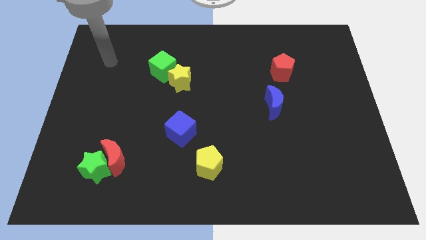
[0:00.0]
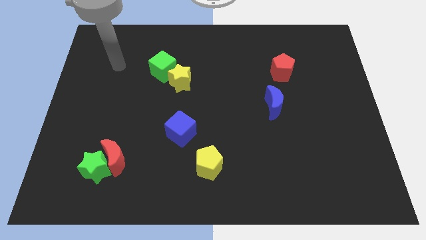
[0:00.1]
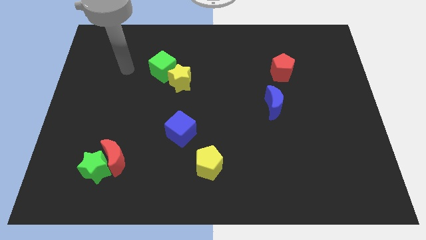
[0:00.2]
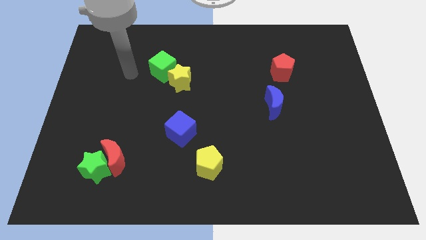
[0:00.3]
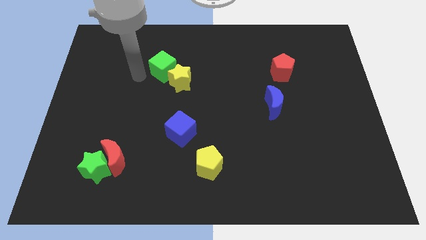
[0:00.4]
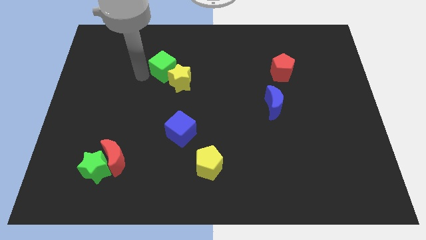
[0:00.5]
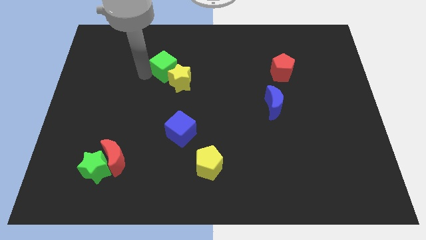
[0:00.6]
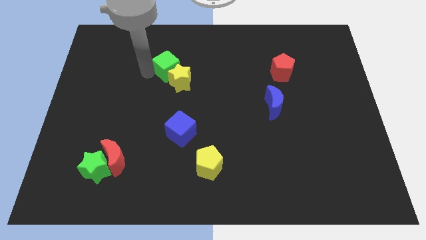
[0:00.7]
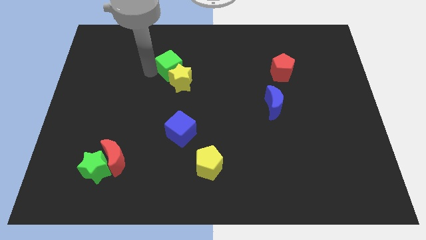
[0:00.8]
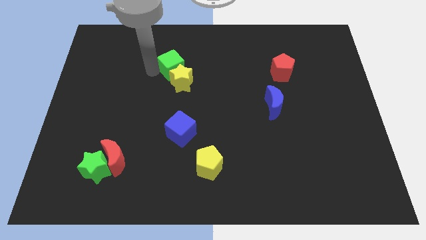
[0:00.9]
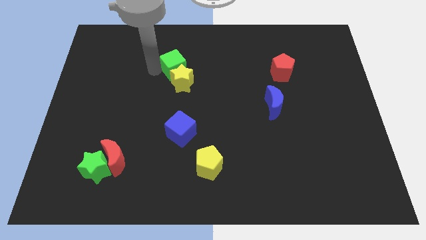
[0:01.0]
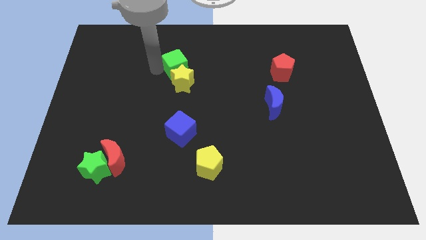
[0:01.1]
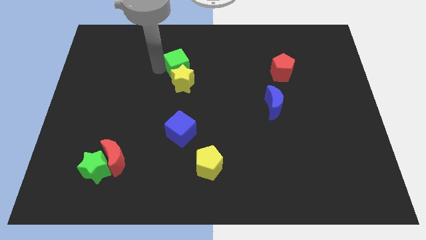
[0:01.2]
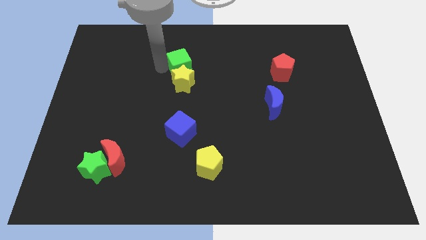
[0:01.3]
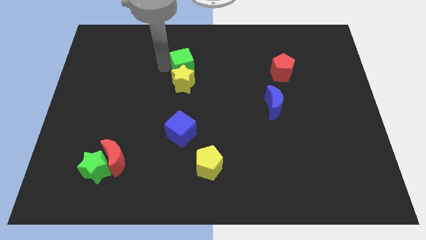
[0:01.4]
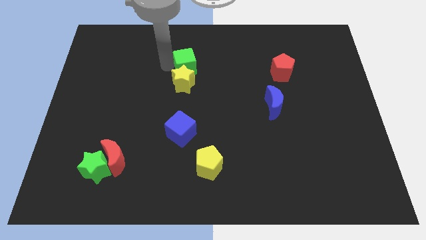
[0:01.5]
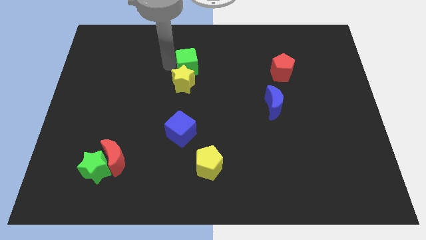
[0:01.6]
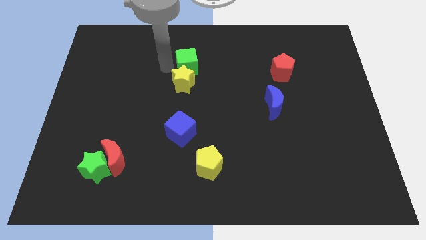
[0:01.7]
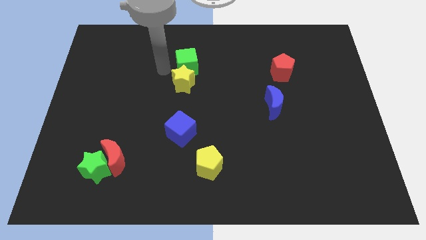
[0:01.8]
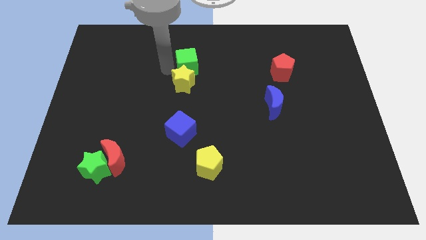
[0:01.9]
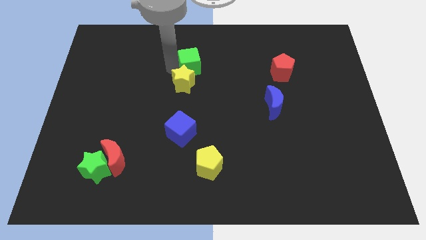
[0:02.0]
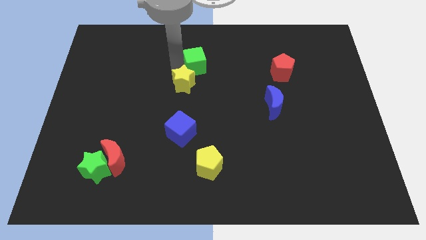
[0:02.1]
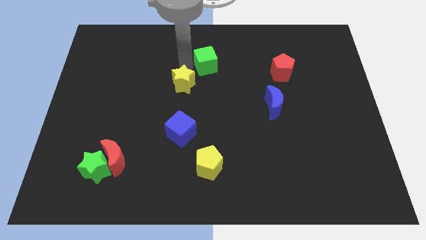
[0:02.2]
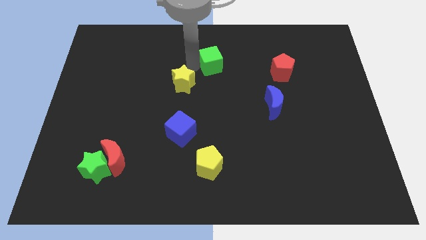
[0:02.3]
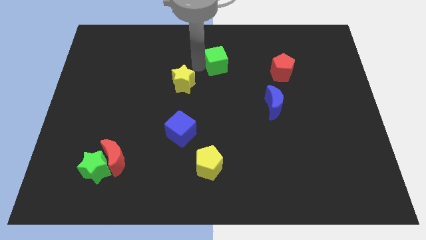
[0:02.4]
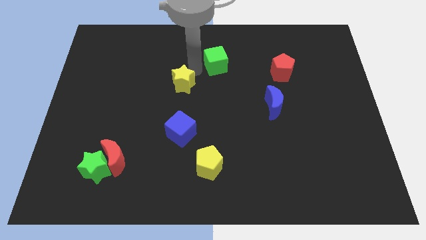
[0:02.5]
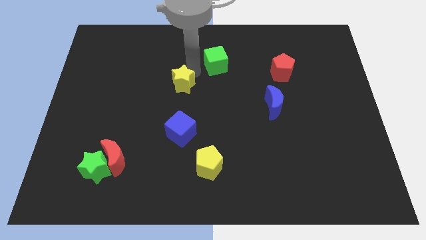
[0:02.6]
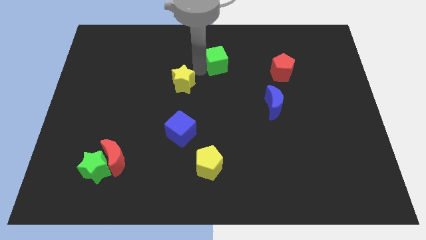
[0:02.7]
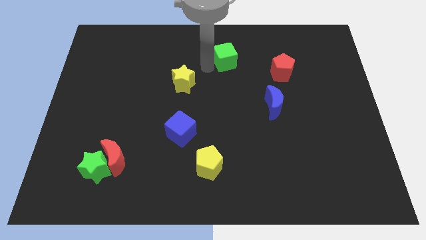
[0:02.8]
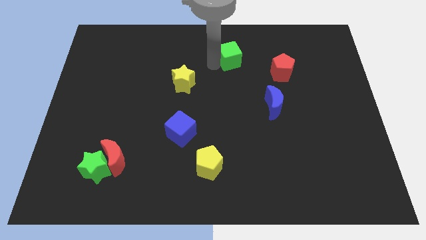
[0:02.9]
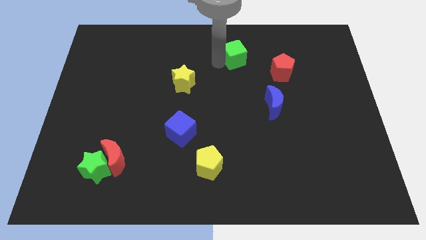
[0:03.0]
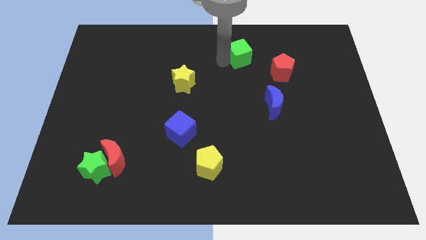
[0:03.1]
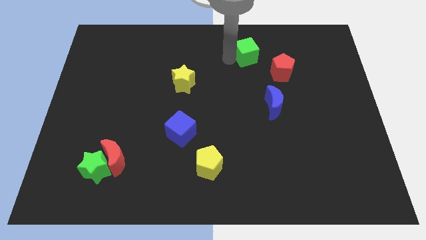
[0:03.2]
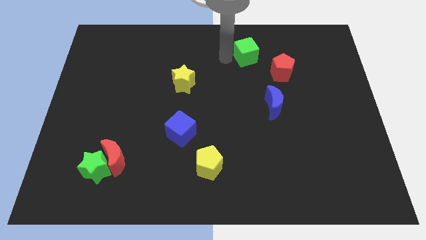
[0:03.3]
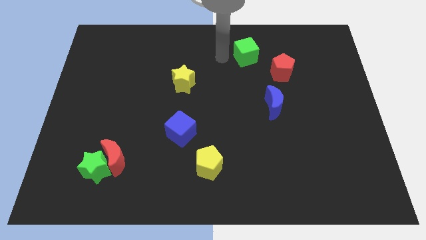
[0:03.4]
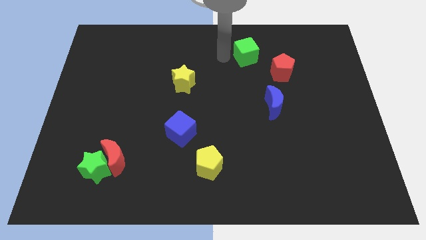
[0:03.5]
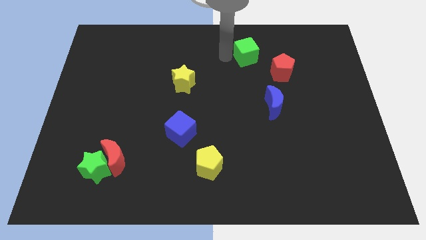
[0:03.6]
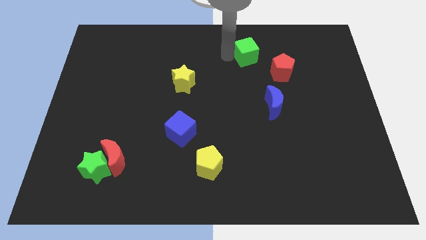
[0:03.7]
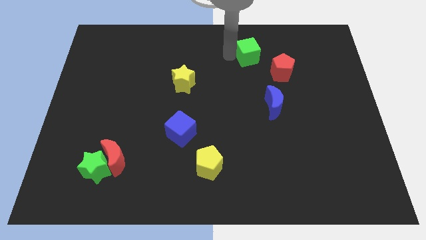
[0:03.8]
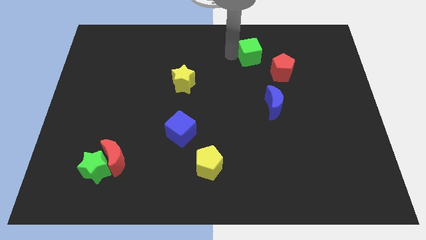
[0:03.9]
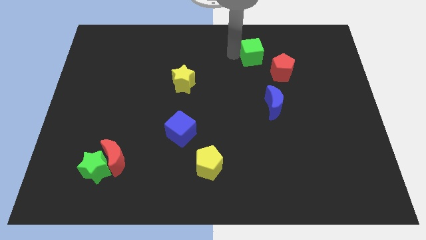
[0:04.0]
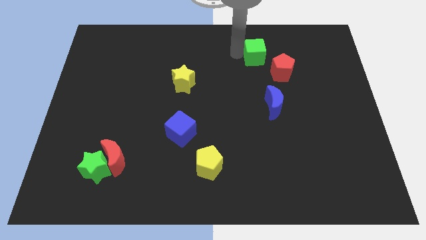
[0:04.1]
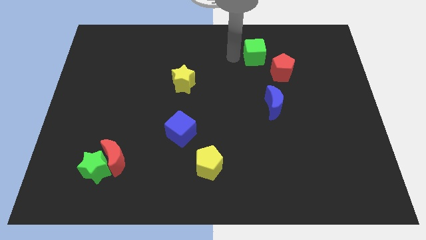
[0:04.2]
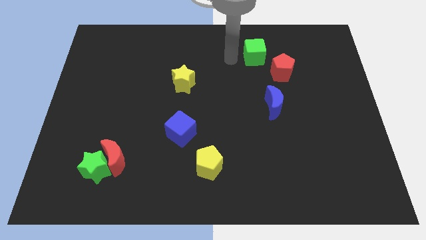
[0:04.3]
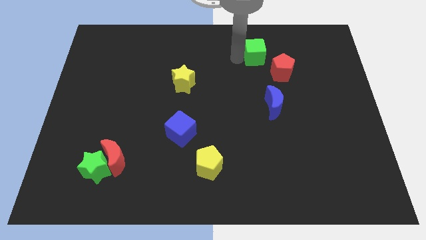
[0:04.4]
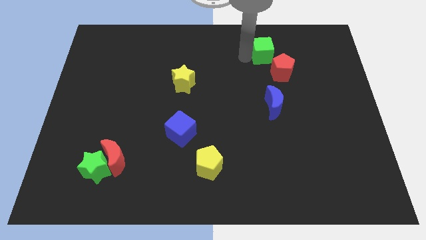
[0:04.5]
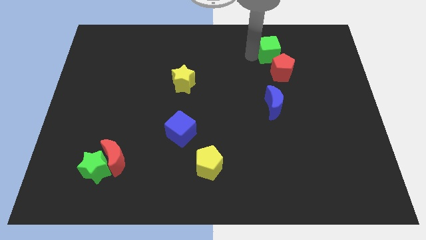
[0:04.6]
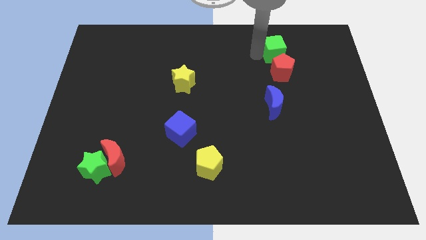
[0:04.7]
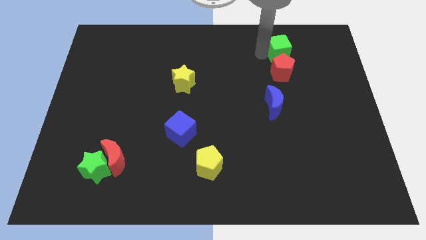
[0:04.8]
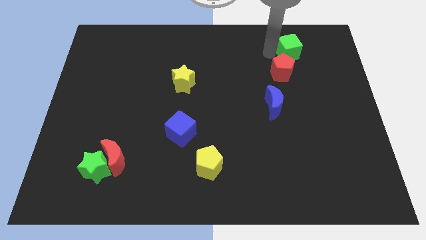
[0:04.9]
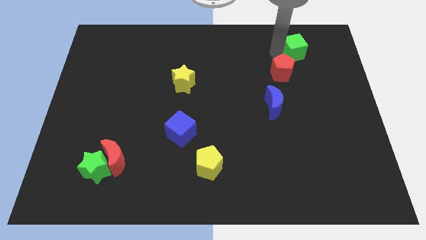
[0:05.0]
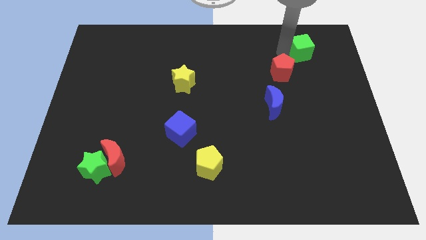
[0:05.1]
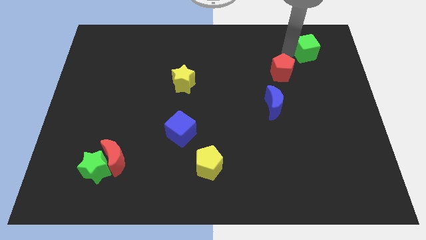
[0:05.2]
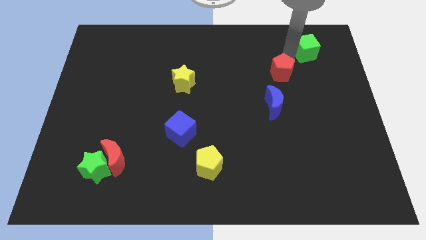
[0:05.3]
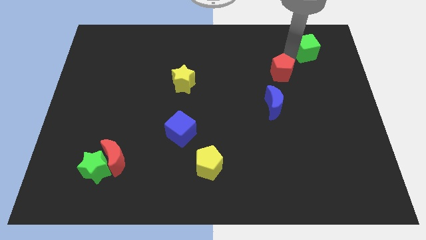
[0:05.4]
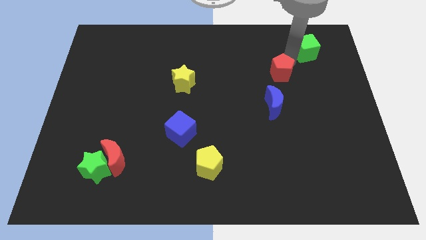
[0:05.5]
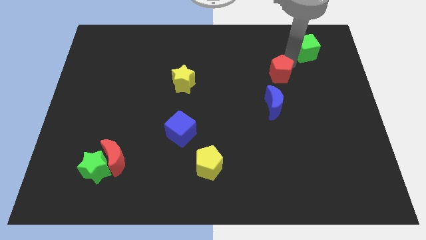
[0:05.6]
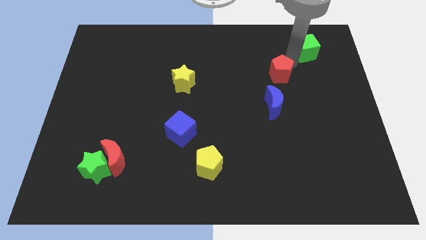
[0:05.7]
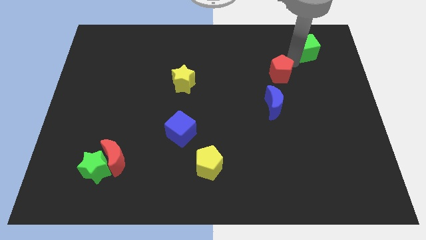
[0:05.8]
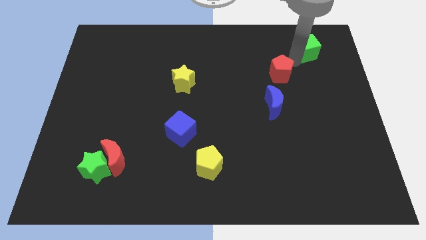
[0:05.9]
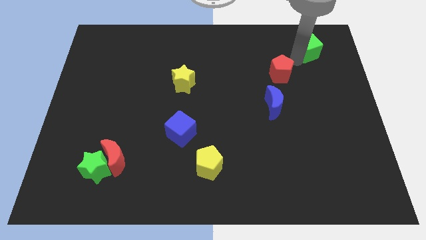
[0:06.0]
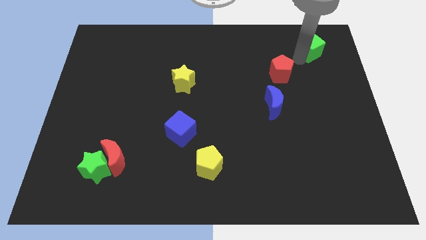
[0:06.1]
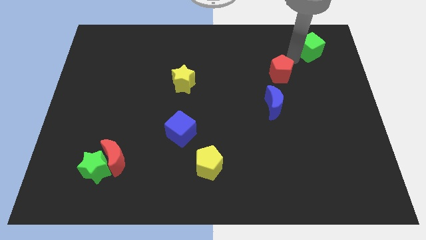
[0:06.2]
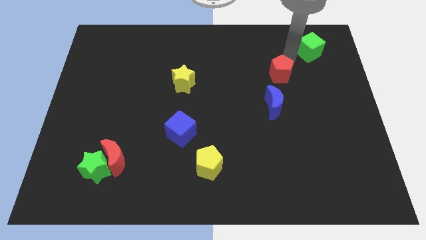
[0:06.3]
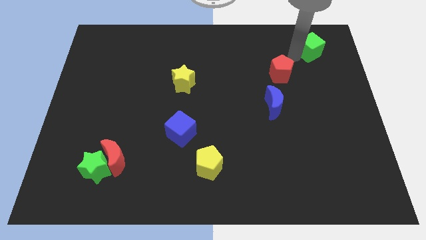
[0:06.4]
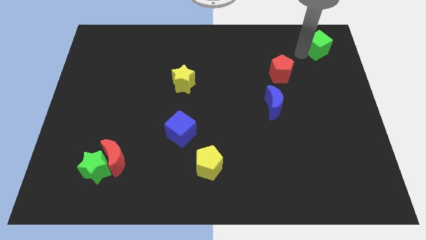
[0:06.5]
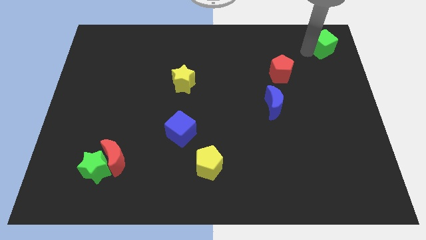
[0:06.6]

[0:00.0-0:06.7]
push the green cube to the top right corner
